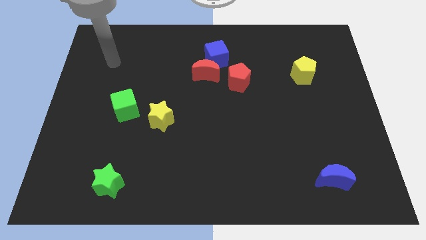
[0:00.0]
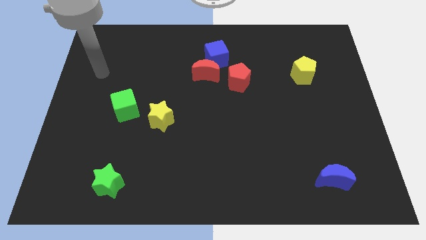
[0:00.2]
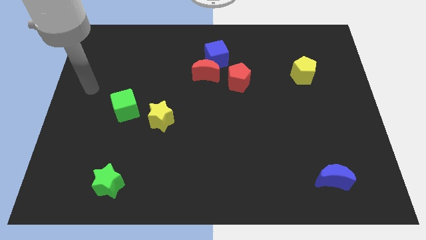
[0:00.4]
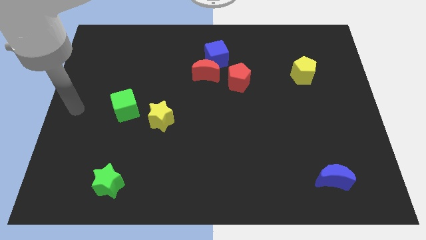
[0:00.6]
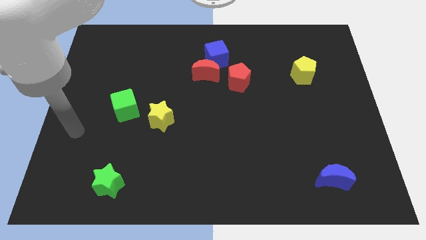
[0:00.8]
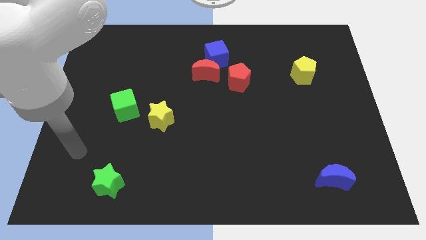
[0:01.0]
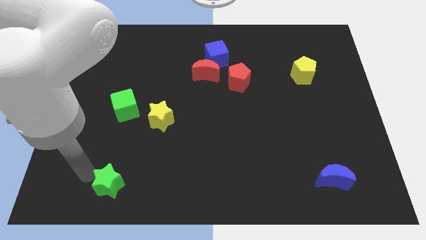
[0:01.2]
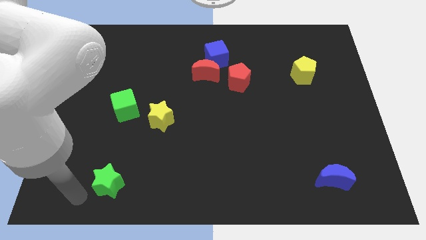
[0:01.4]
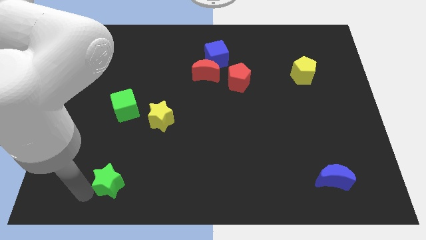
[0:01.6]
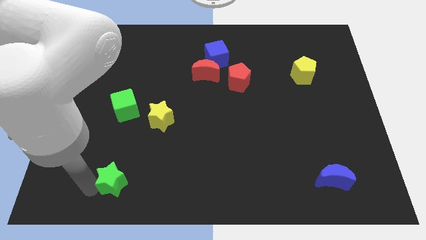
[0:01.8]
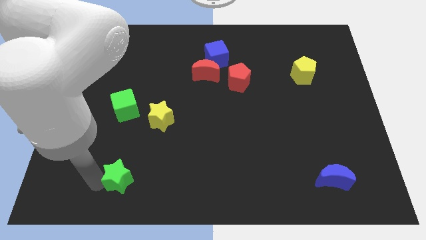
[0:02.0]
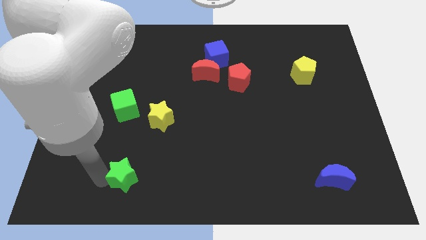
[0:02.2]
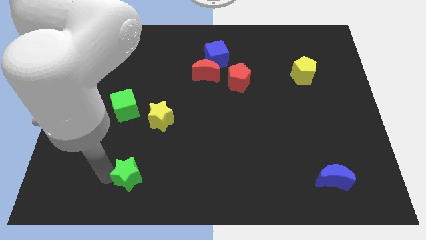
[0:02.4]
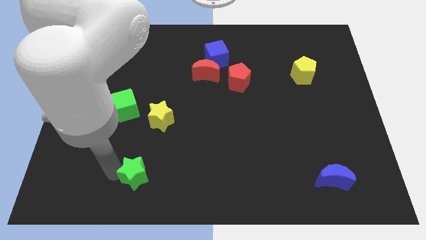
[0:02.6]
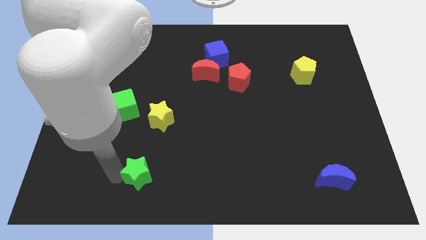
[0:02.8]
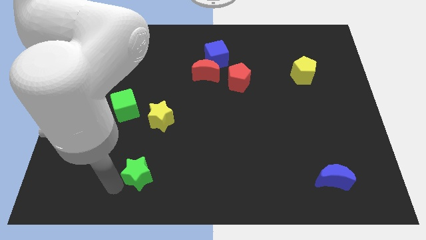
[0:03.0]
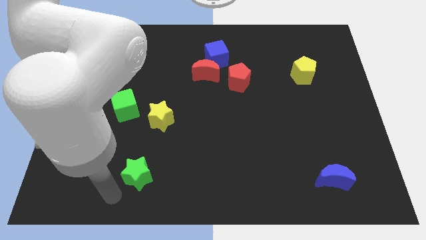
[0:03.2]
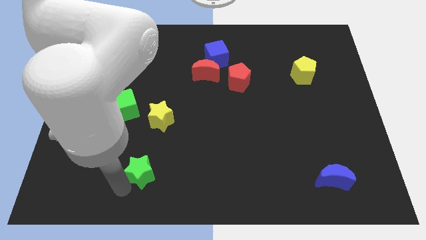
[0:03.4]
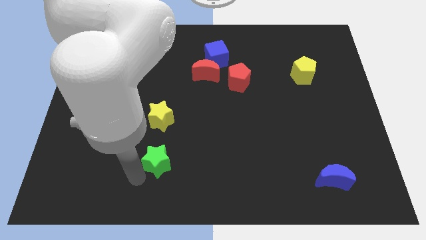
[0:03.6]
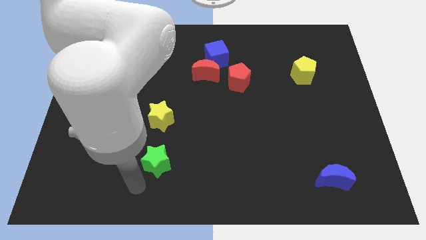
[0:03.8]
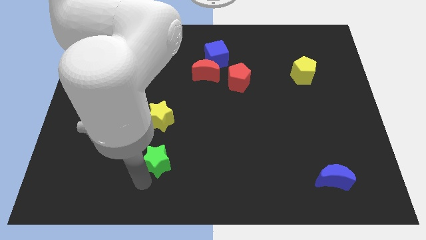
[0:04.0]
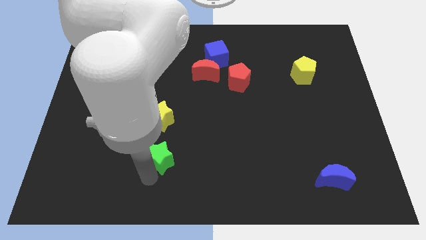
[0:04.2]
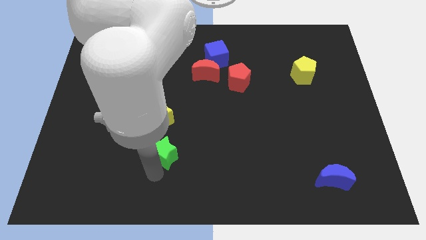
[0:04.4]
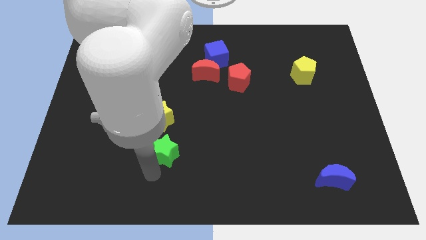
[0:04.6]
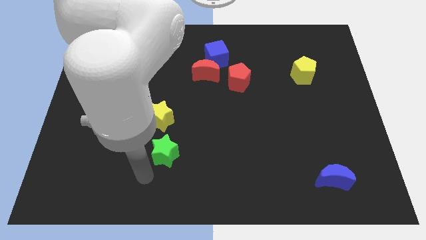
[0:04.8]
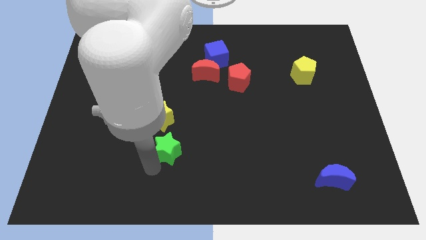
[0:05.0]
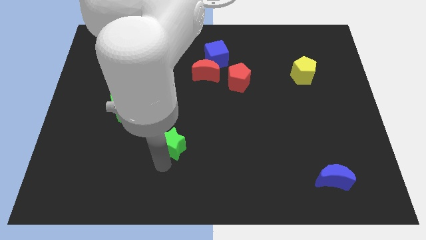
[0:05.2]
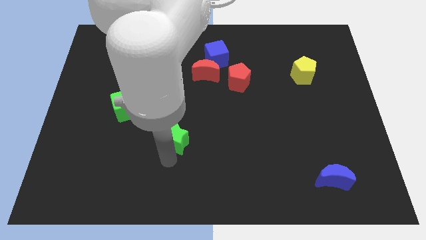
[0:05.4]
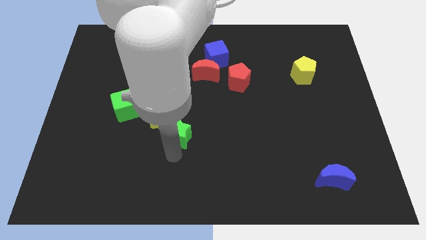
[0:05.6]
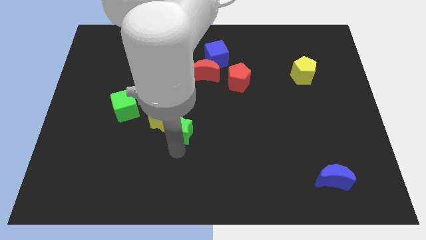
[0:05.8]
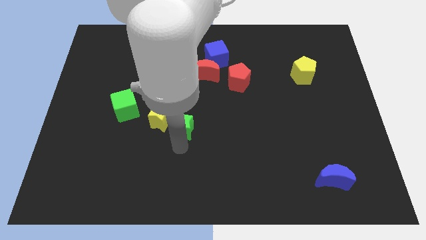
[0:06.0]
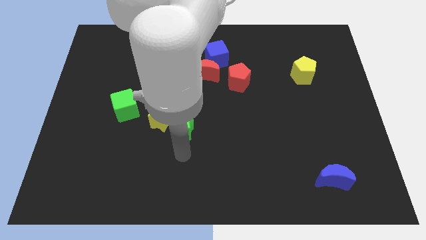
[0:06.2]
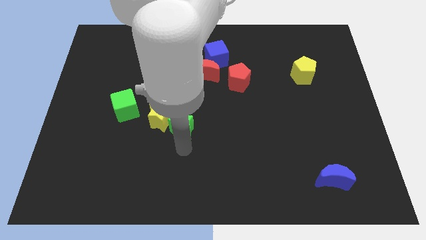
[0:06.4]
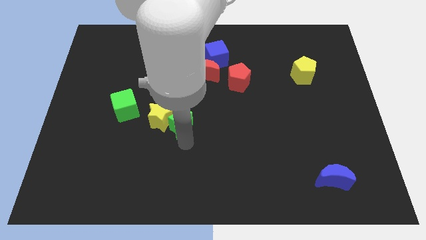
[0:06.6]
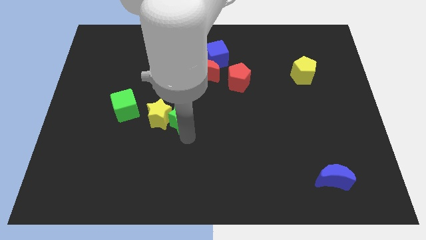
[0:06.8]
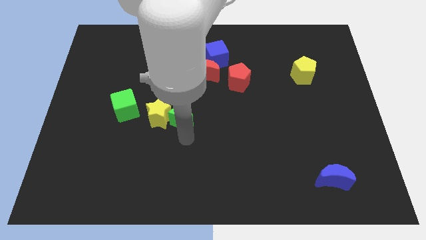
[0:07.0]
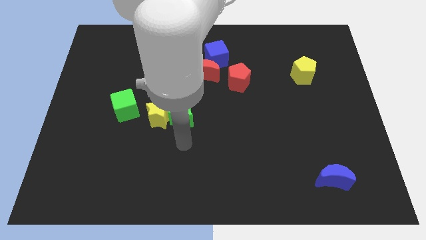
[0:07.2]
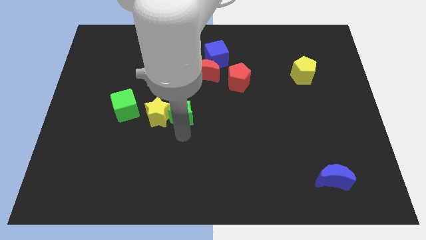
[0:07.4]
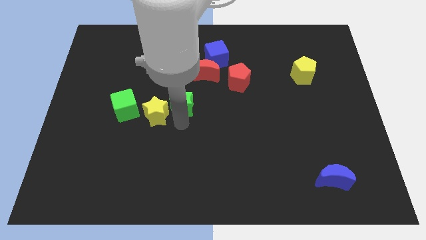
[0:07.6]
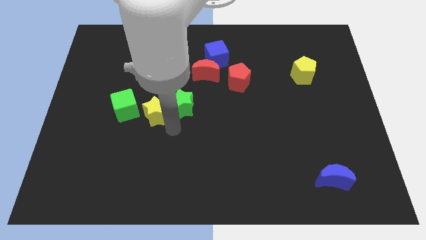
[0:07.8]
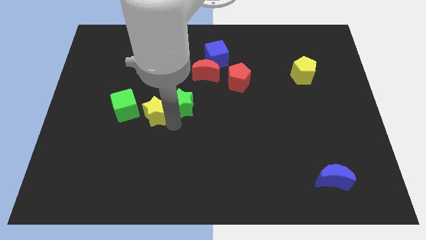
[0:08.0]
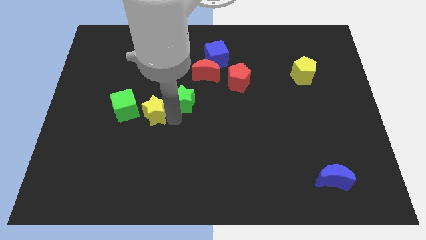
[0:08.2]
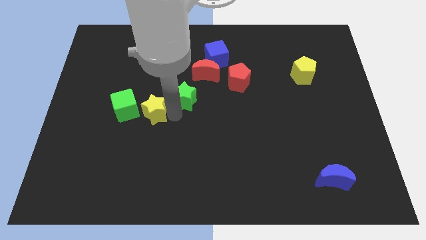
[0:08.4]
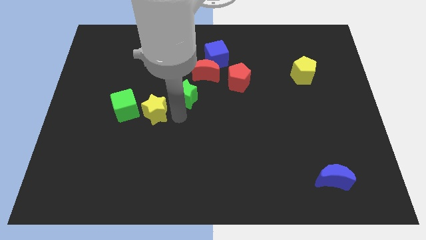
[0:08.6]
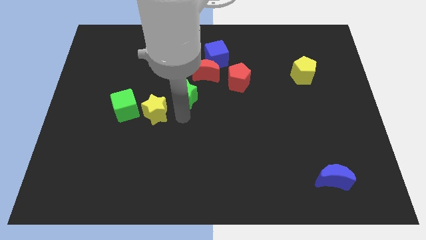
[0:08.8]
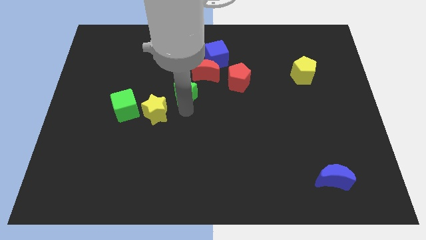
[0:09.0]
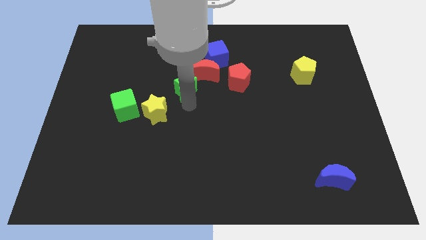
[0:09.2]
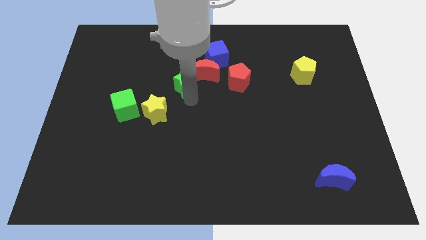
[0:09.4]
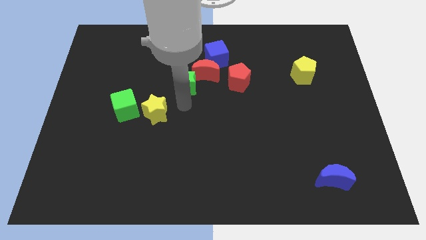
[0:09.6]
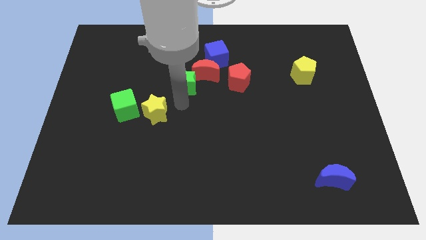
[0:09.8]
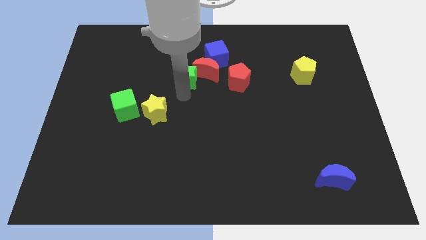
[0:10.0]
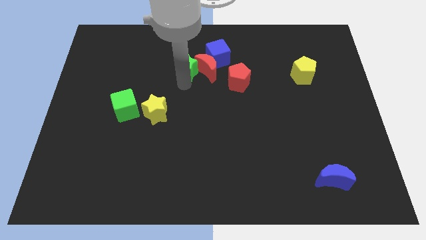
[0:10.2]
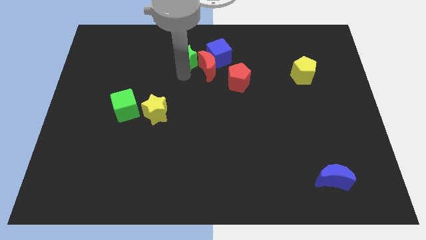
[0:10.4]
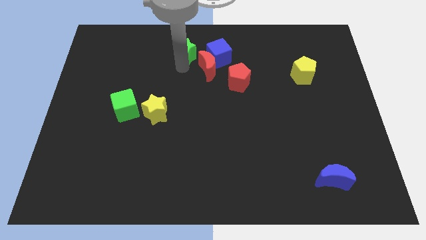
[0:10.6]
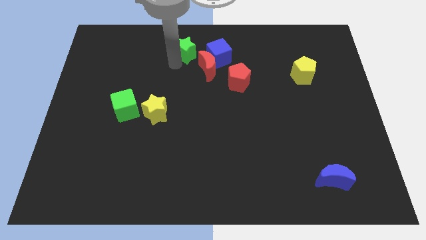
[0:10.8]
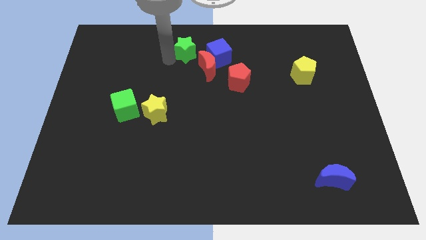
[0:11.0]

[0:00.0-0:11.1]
move the green star to the top
